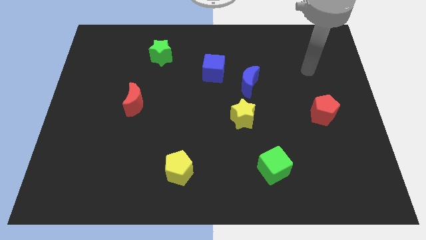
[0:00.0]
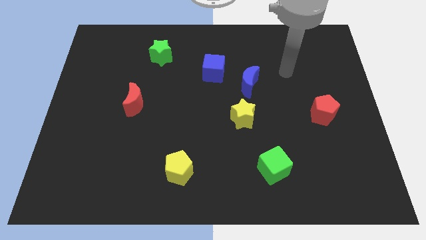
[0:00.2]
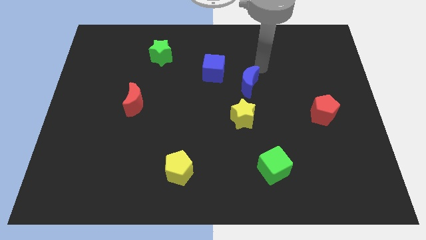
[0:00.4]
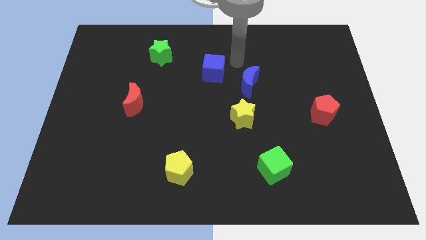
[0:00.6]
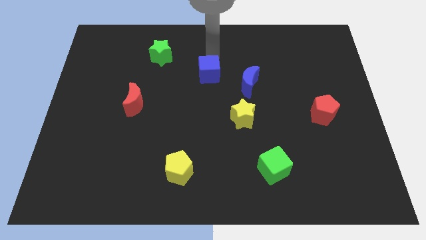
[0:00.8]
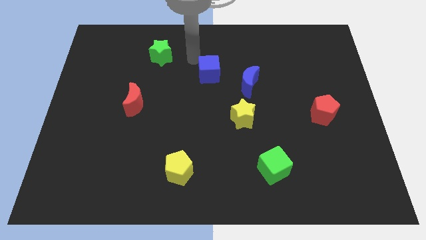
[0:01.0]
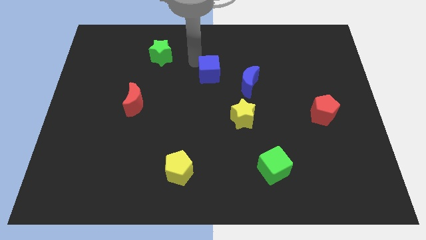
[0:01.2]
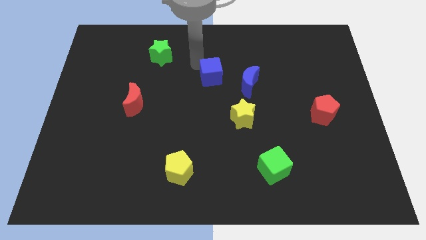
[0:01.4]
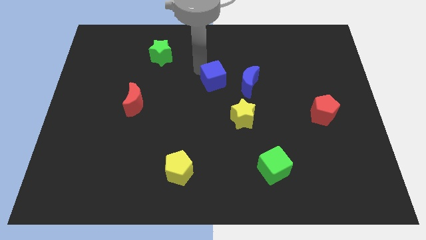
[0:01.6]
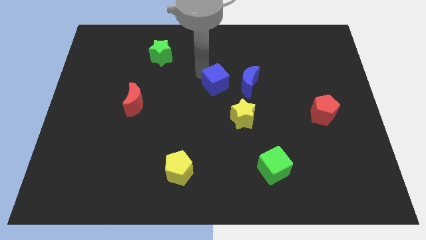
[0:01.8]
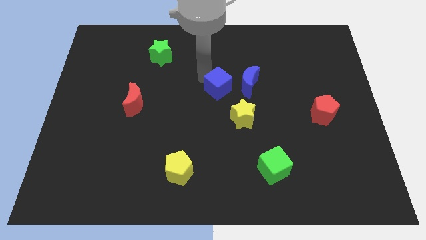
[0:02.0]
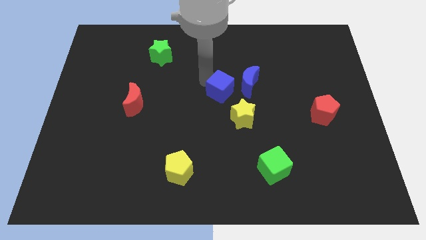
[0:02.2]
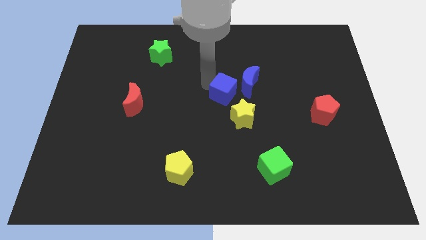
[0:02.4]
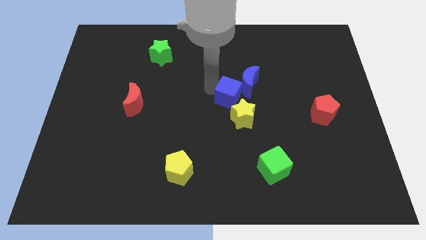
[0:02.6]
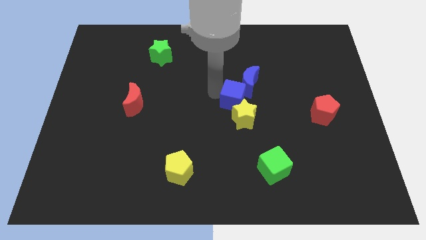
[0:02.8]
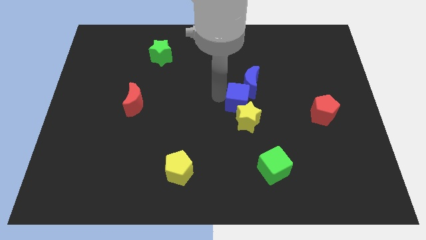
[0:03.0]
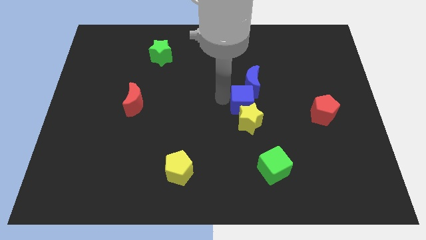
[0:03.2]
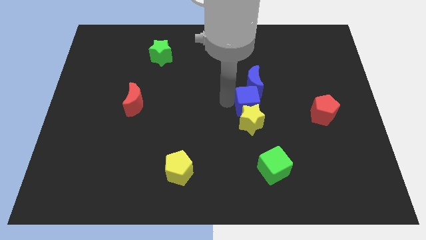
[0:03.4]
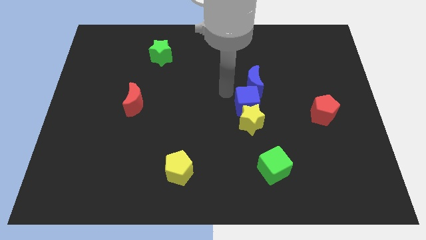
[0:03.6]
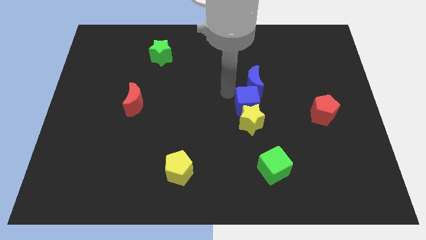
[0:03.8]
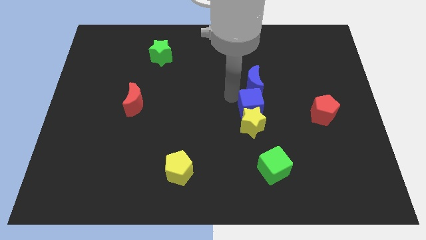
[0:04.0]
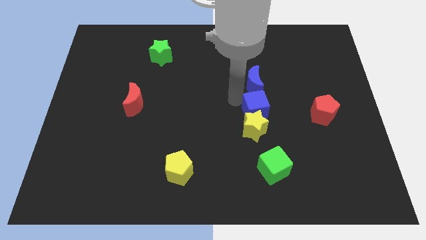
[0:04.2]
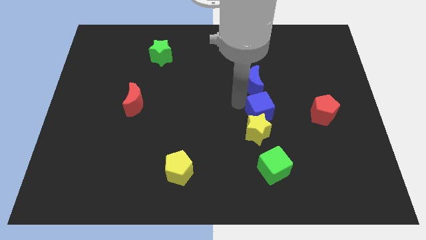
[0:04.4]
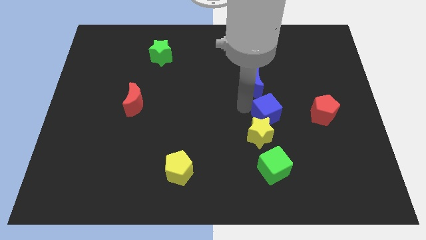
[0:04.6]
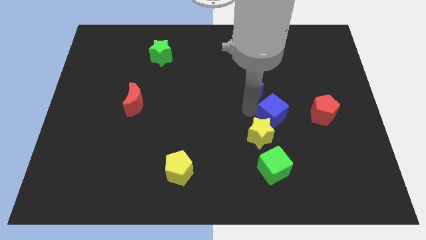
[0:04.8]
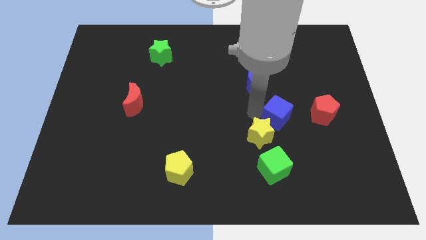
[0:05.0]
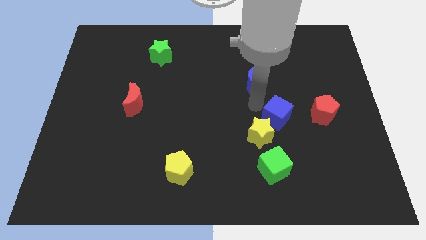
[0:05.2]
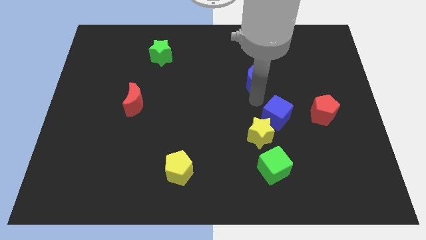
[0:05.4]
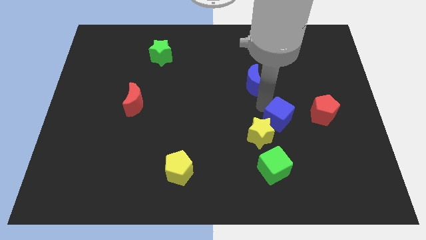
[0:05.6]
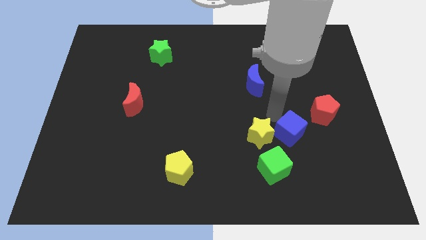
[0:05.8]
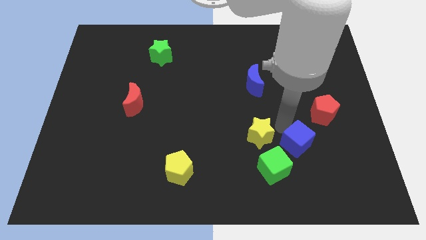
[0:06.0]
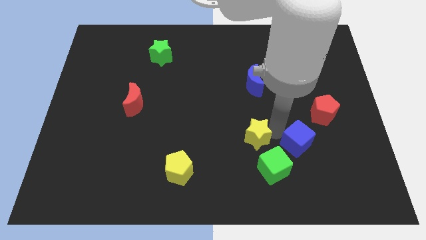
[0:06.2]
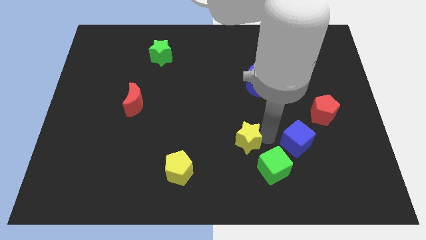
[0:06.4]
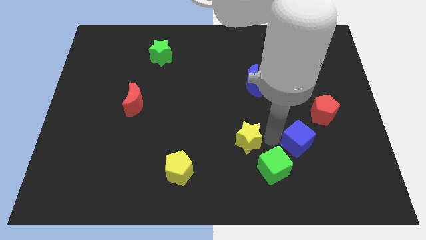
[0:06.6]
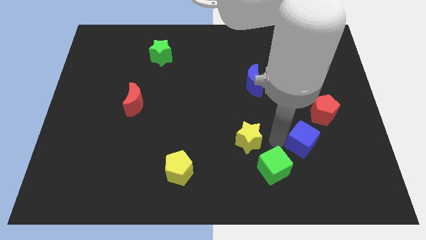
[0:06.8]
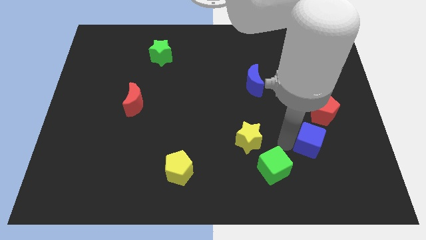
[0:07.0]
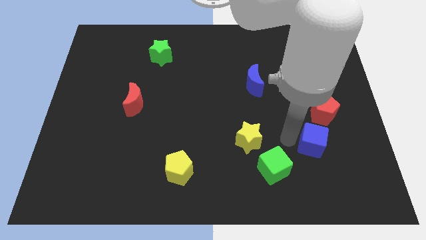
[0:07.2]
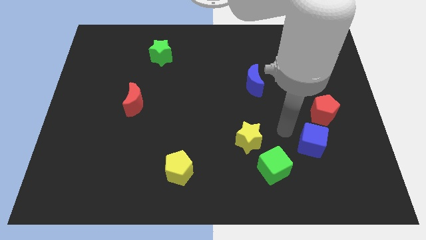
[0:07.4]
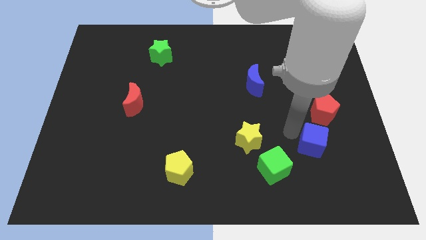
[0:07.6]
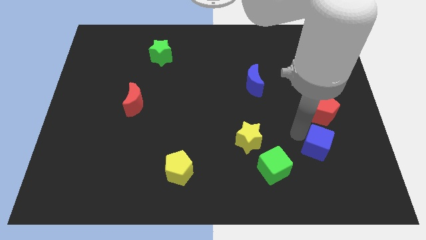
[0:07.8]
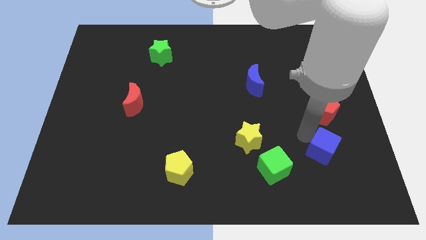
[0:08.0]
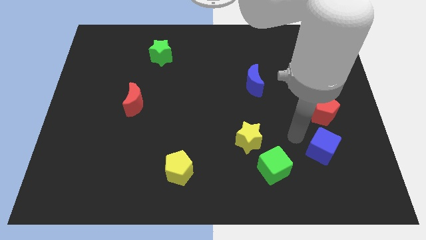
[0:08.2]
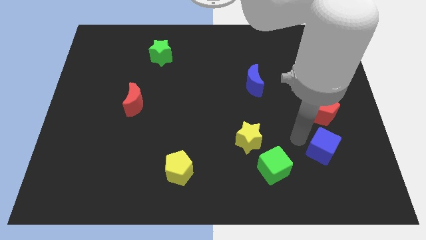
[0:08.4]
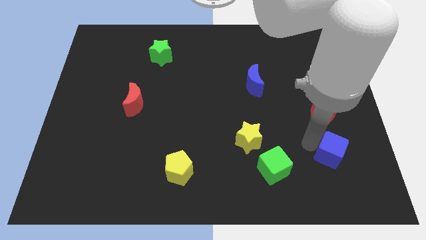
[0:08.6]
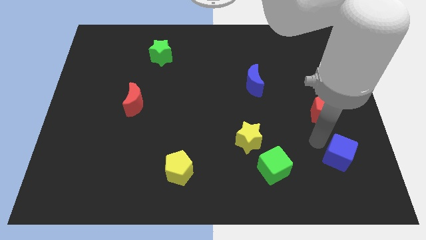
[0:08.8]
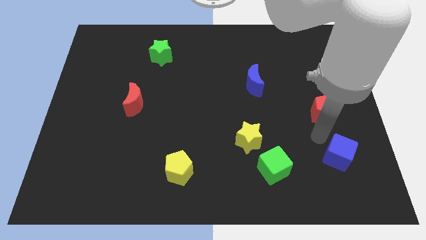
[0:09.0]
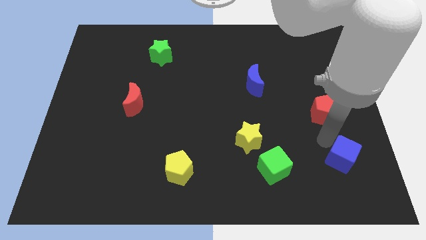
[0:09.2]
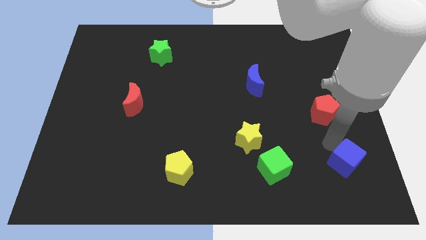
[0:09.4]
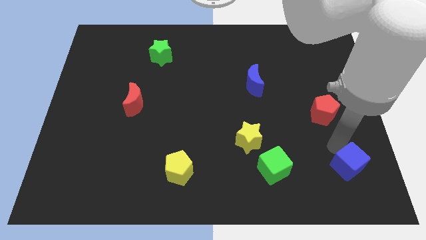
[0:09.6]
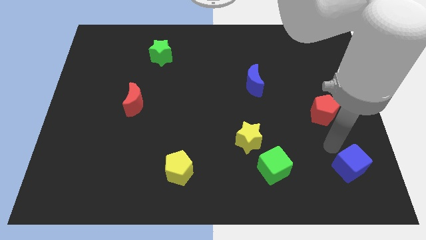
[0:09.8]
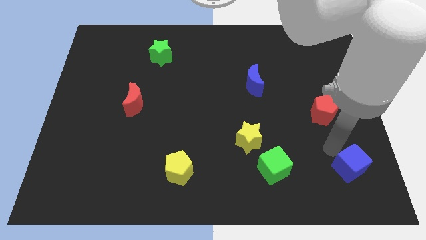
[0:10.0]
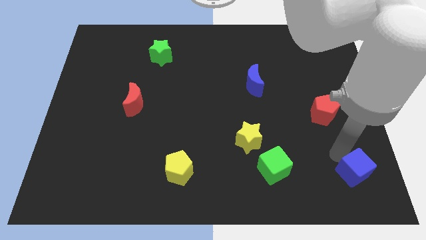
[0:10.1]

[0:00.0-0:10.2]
move the blue cube to the bottom right

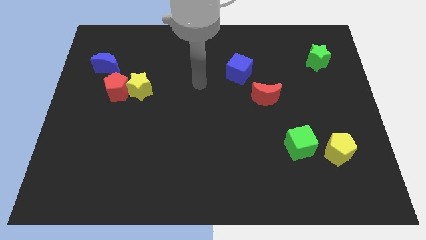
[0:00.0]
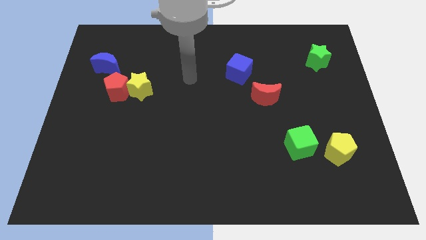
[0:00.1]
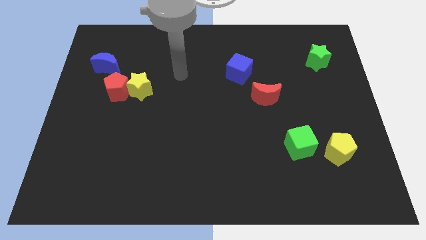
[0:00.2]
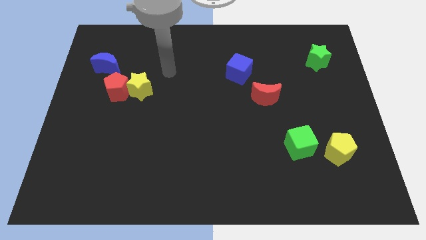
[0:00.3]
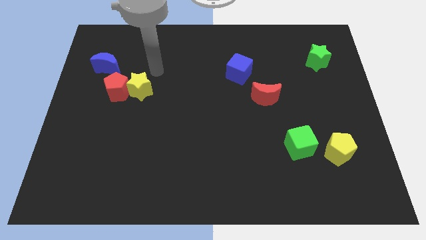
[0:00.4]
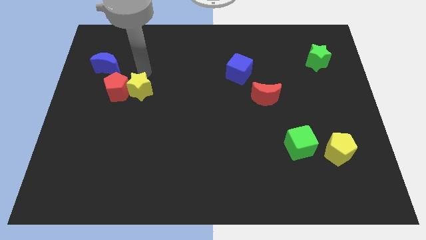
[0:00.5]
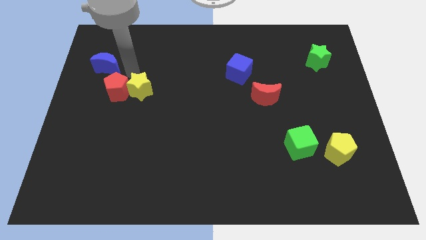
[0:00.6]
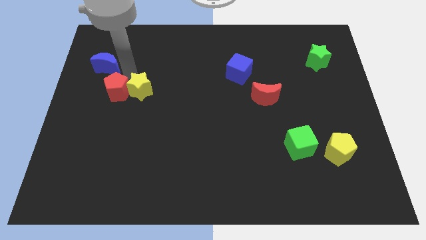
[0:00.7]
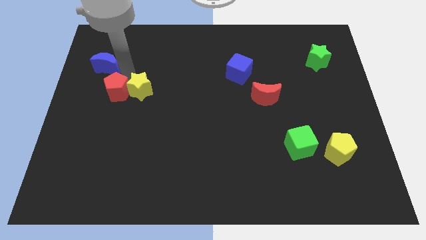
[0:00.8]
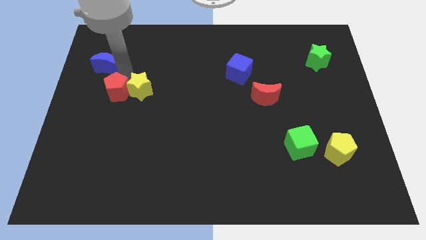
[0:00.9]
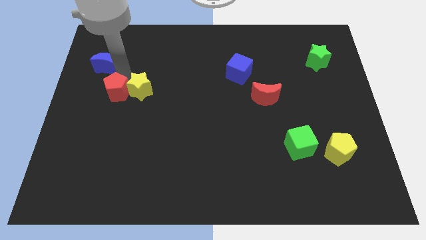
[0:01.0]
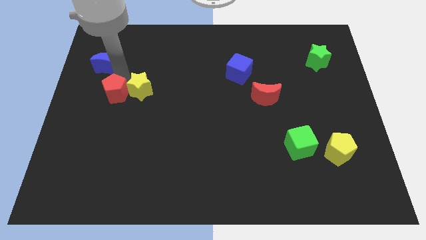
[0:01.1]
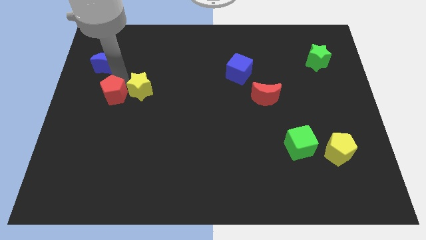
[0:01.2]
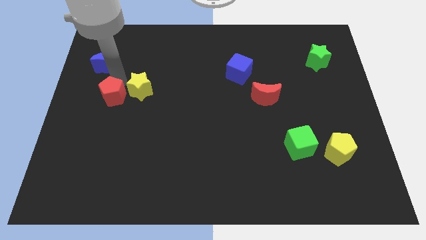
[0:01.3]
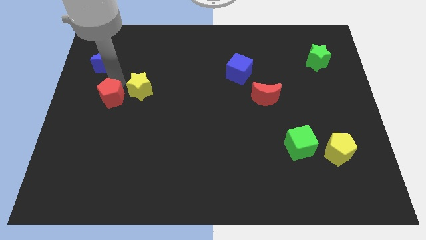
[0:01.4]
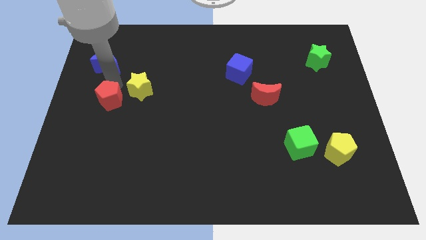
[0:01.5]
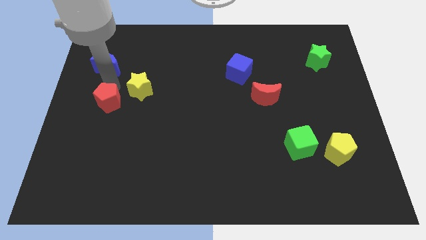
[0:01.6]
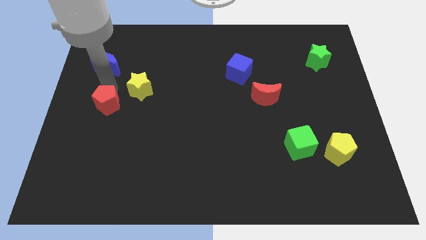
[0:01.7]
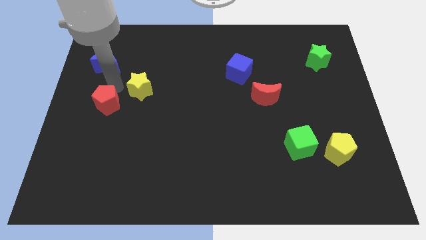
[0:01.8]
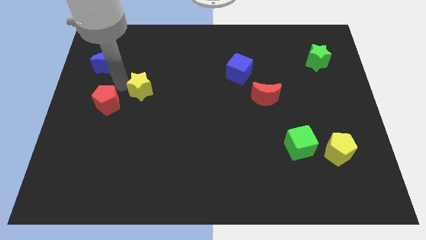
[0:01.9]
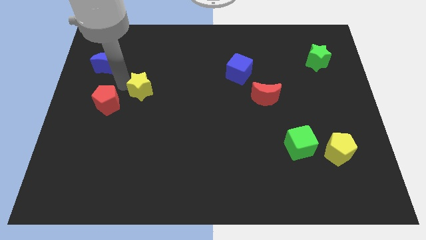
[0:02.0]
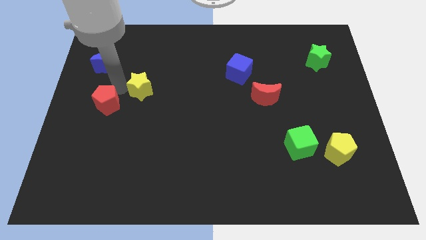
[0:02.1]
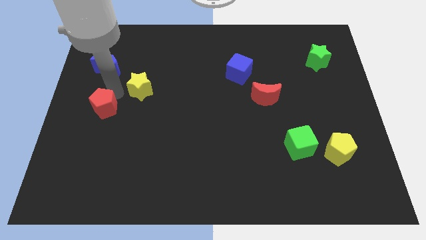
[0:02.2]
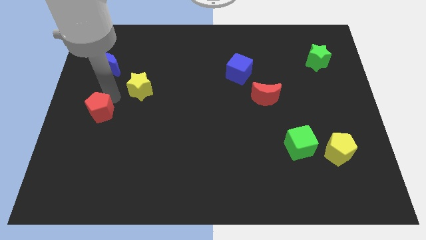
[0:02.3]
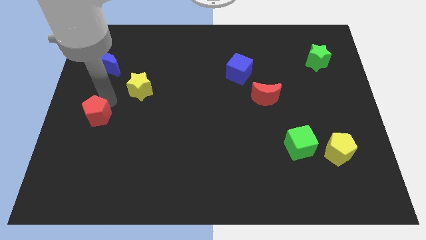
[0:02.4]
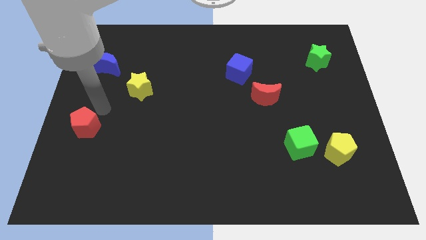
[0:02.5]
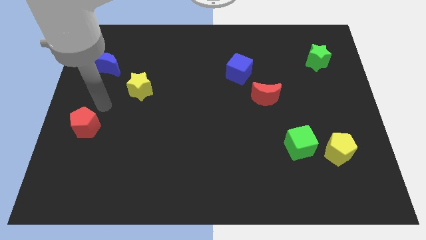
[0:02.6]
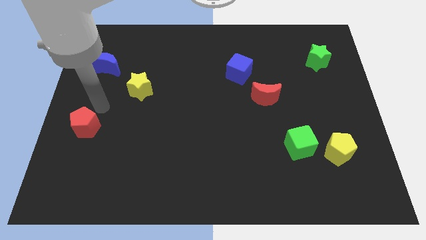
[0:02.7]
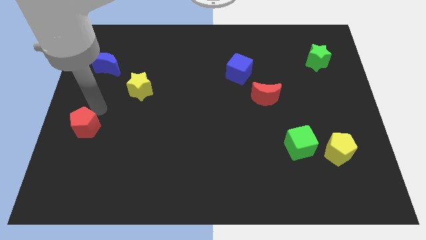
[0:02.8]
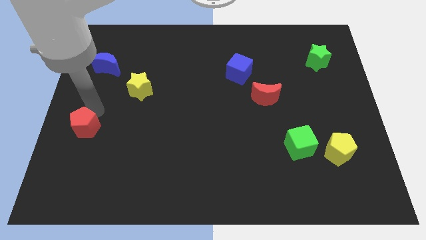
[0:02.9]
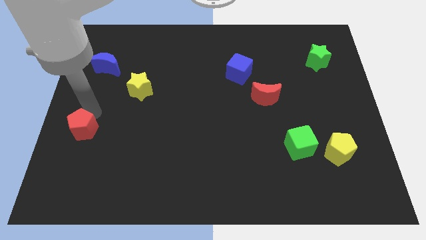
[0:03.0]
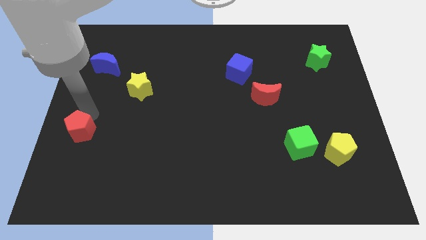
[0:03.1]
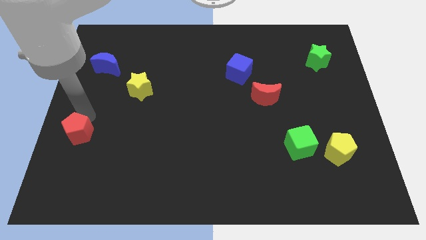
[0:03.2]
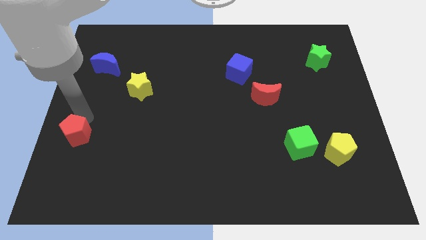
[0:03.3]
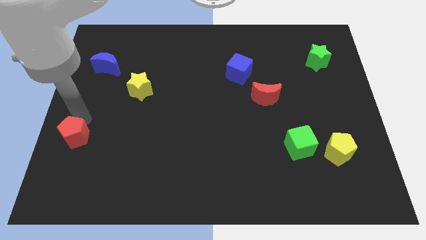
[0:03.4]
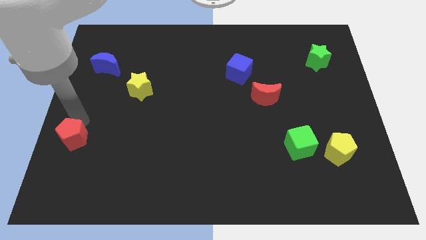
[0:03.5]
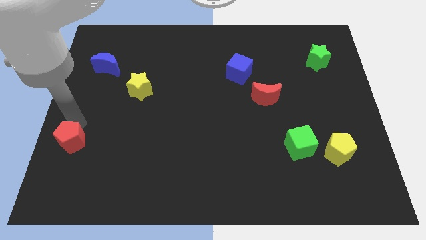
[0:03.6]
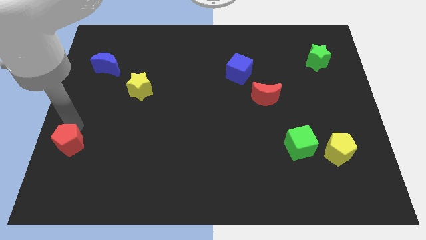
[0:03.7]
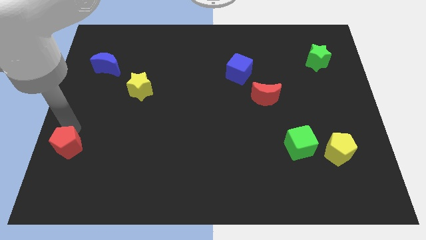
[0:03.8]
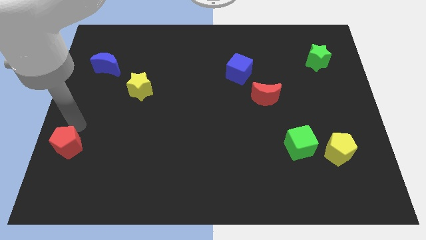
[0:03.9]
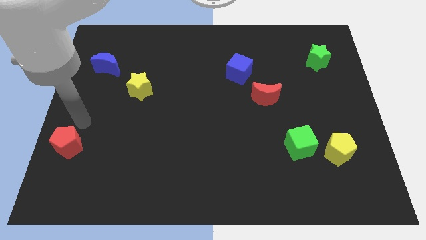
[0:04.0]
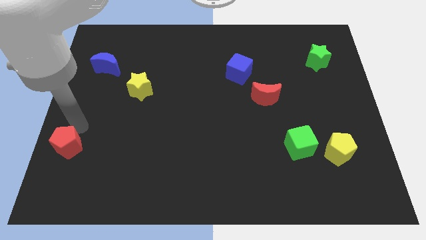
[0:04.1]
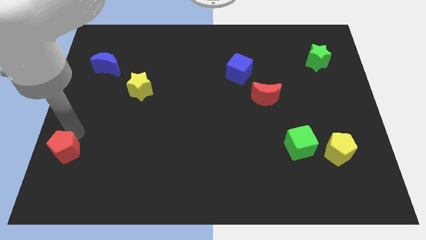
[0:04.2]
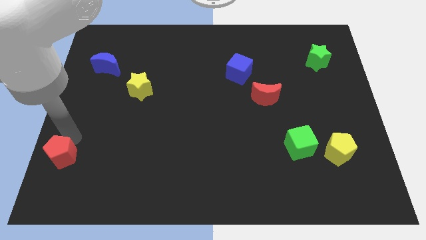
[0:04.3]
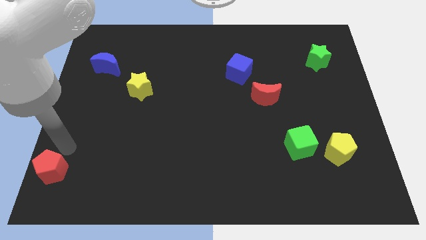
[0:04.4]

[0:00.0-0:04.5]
put the red pentagon to the bottom left of the board
